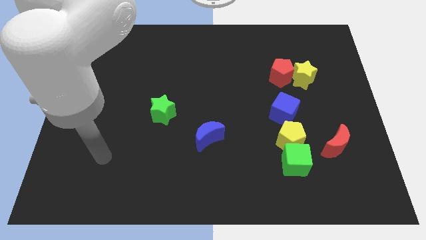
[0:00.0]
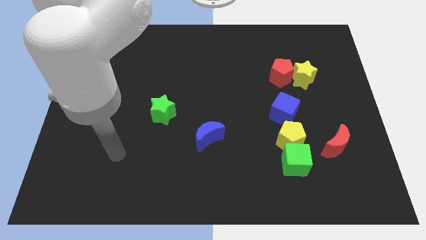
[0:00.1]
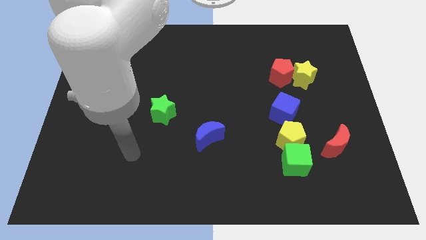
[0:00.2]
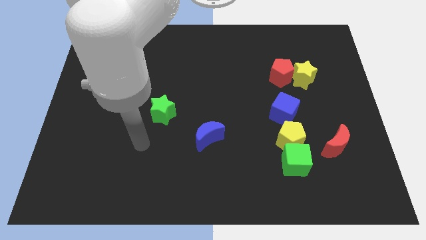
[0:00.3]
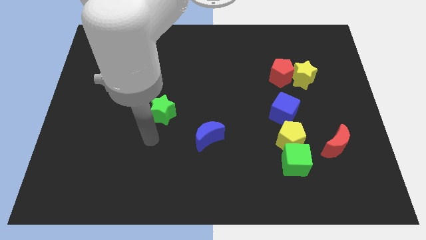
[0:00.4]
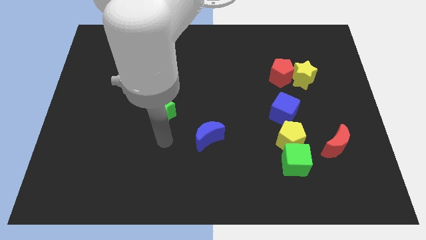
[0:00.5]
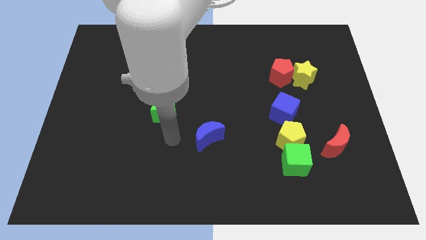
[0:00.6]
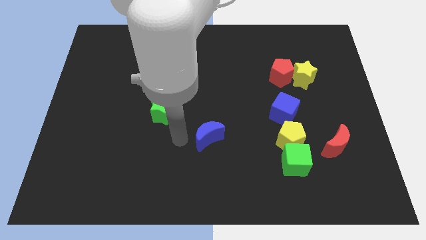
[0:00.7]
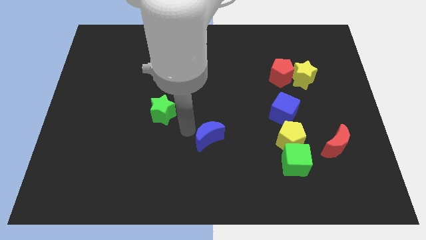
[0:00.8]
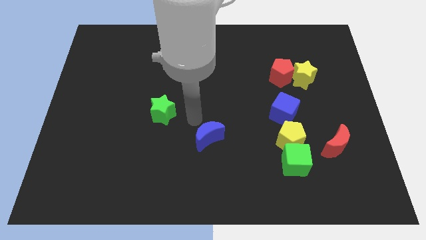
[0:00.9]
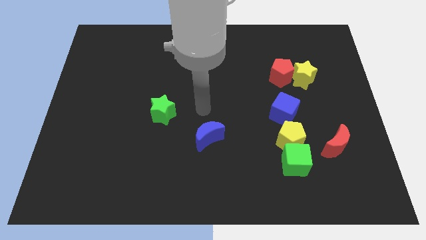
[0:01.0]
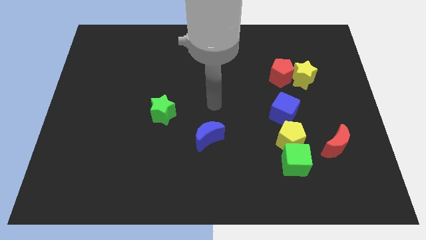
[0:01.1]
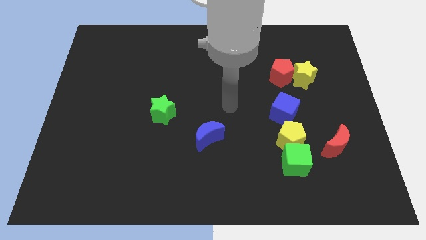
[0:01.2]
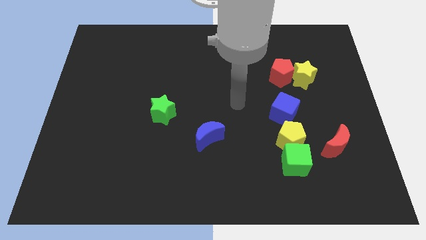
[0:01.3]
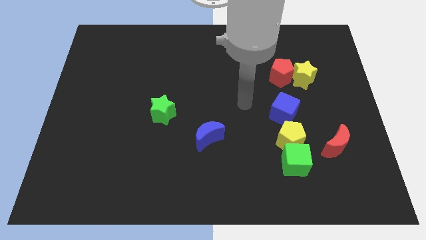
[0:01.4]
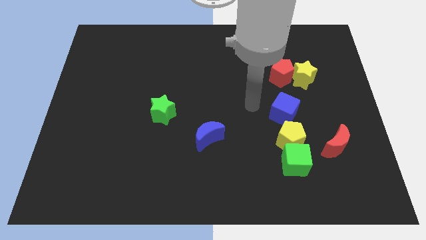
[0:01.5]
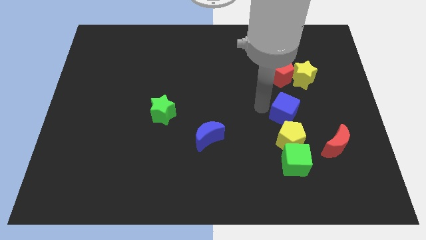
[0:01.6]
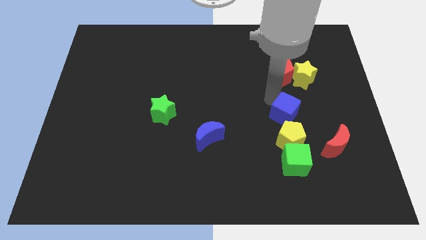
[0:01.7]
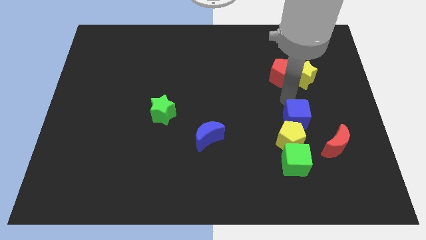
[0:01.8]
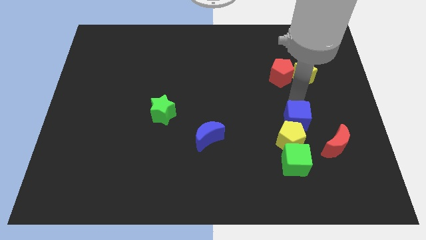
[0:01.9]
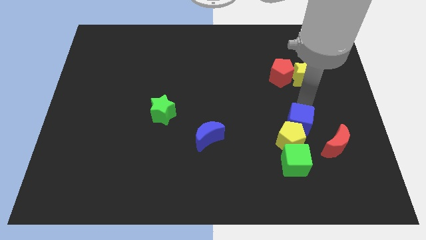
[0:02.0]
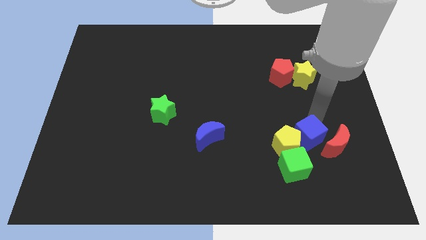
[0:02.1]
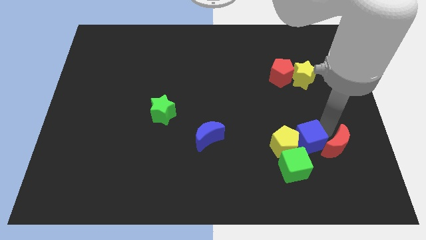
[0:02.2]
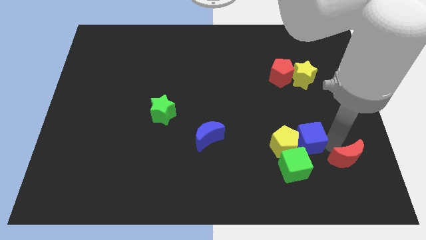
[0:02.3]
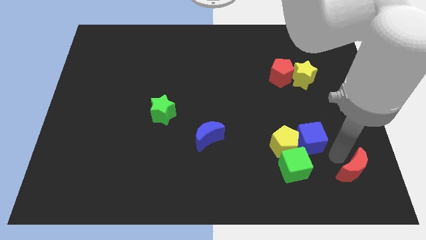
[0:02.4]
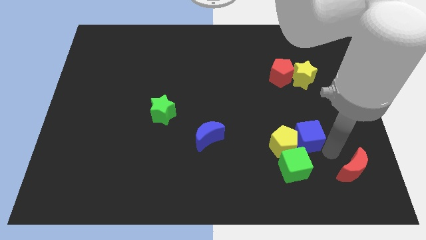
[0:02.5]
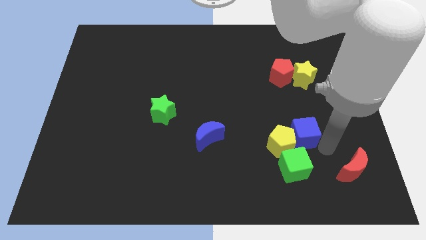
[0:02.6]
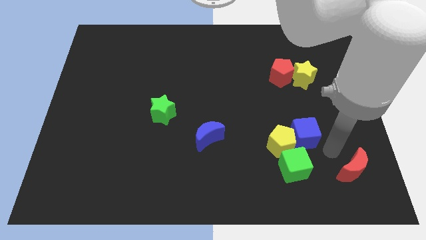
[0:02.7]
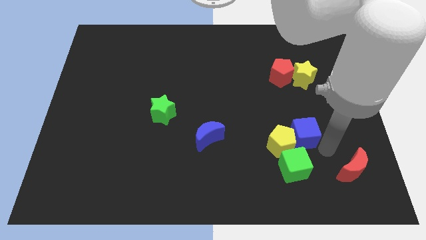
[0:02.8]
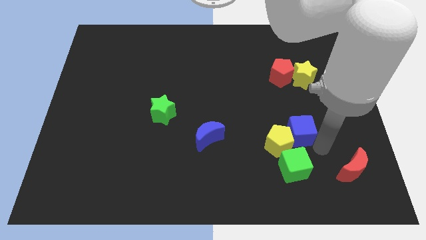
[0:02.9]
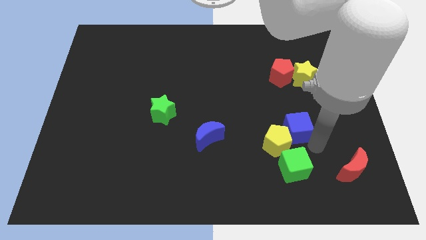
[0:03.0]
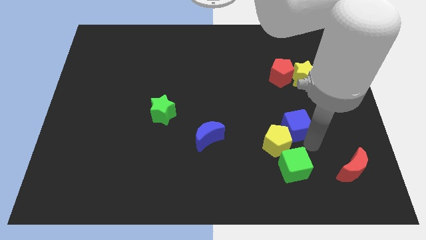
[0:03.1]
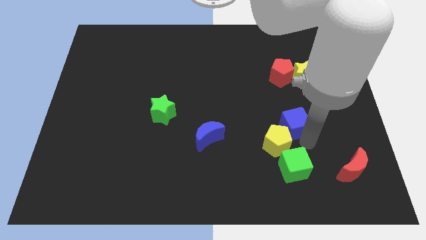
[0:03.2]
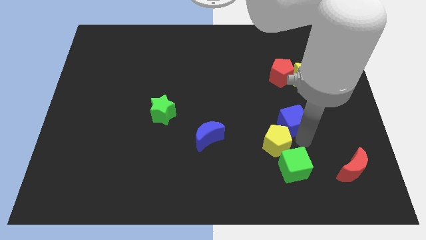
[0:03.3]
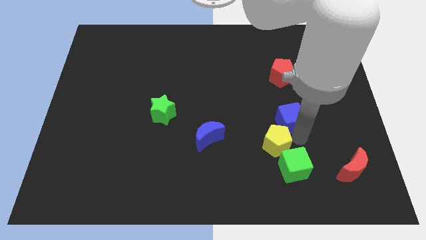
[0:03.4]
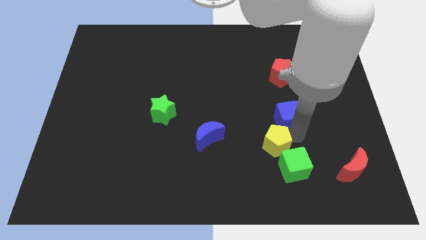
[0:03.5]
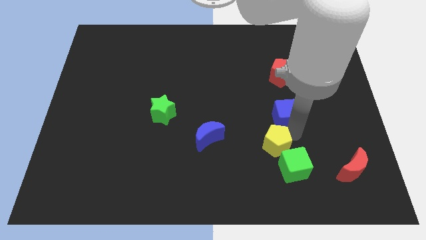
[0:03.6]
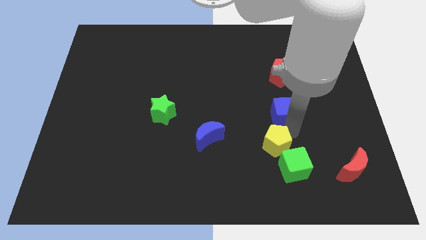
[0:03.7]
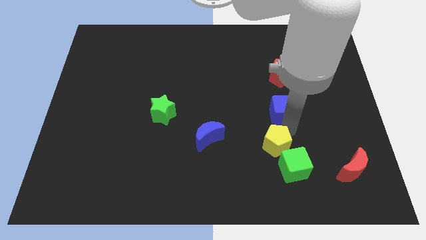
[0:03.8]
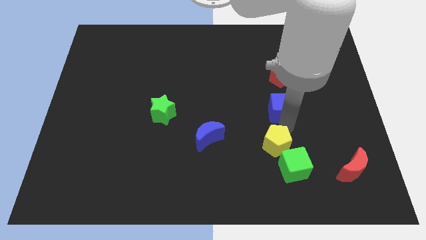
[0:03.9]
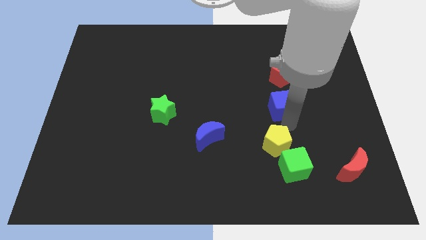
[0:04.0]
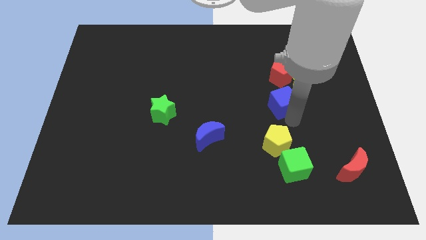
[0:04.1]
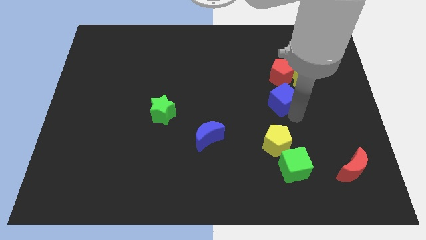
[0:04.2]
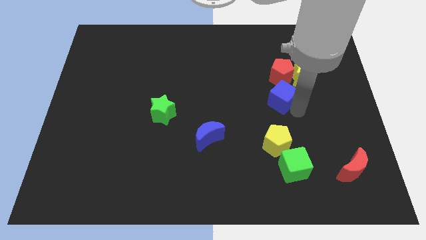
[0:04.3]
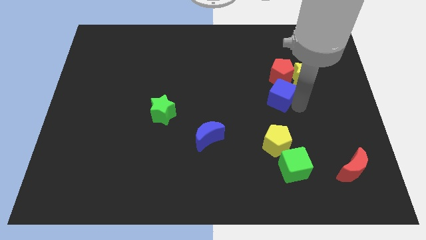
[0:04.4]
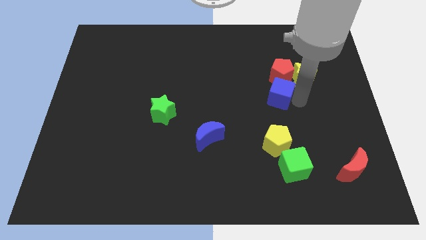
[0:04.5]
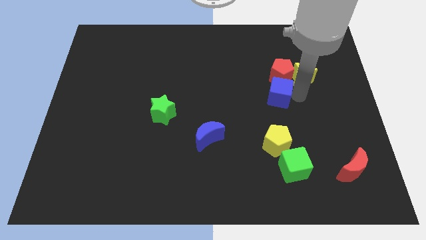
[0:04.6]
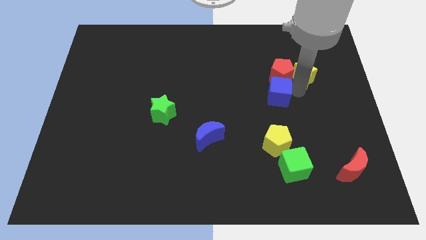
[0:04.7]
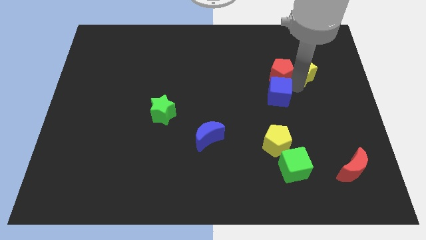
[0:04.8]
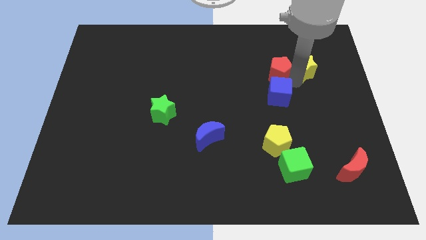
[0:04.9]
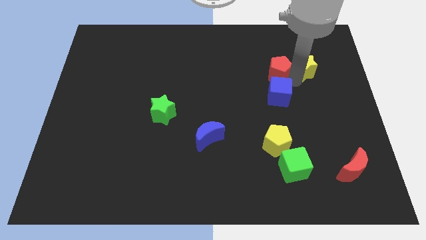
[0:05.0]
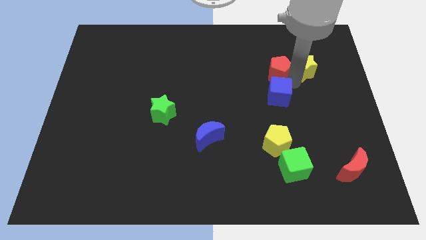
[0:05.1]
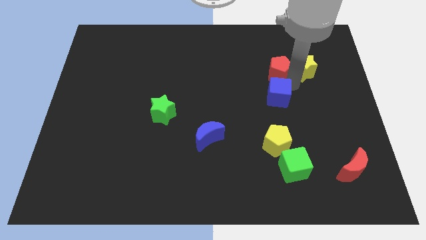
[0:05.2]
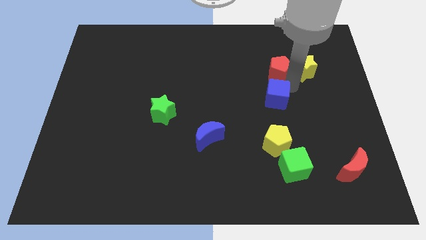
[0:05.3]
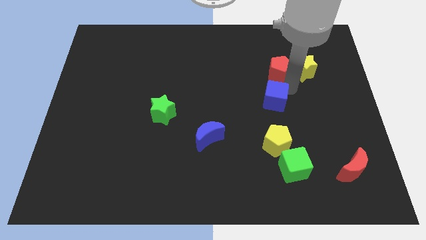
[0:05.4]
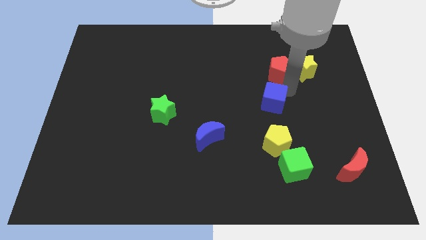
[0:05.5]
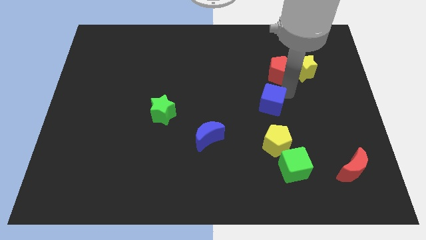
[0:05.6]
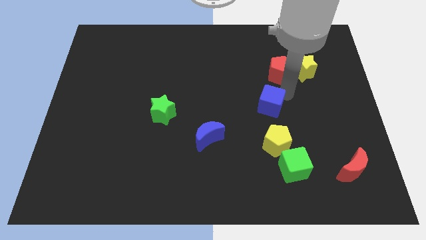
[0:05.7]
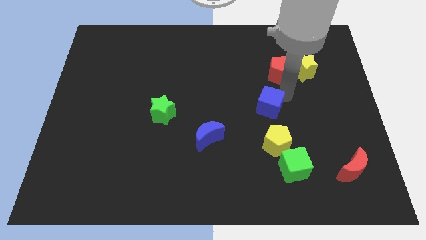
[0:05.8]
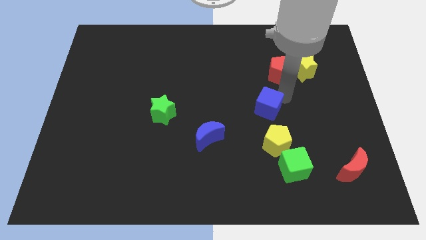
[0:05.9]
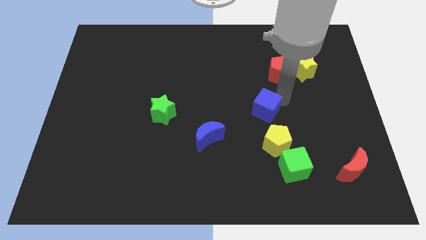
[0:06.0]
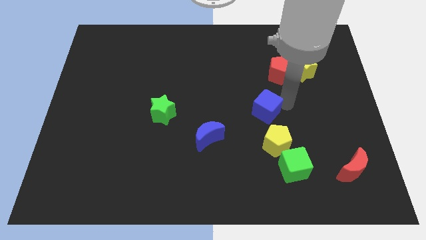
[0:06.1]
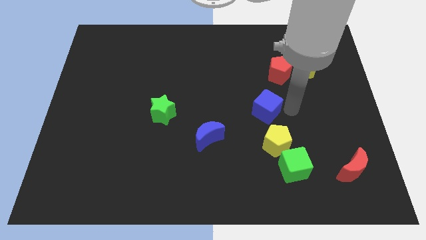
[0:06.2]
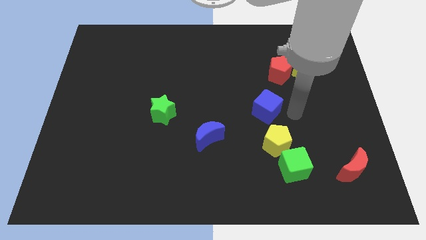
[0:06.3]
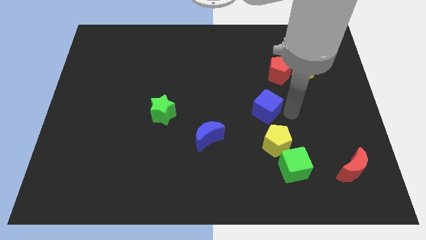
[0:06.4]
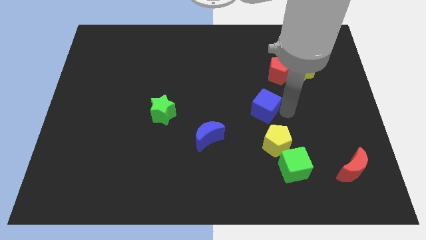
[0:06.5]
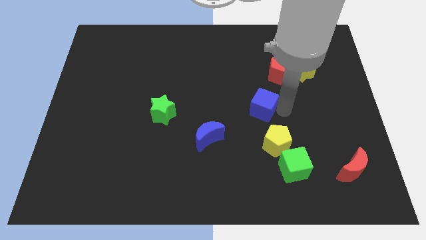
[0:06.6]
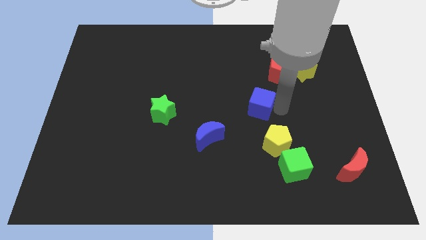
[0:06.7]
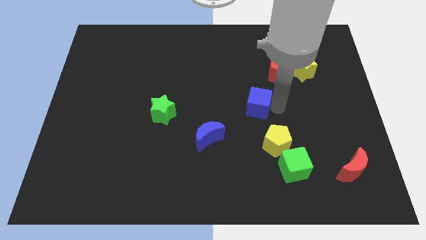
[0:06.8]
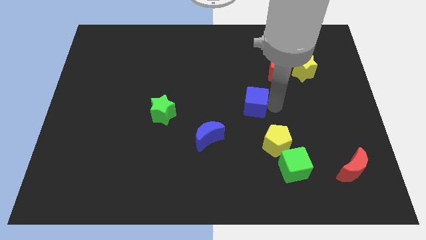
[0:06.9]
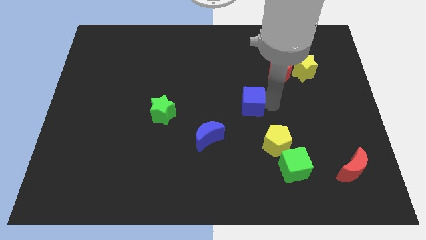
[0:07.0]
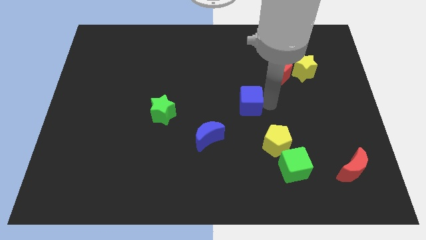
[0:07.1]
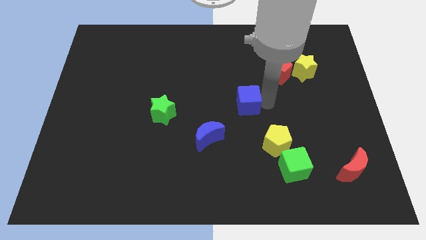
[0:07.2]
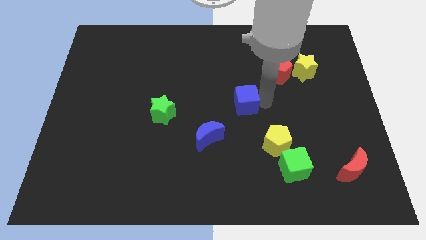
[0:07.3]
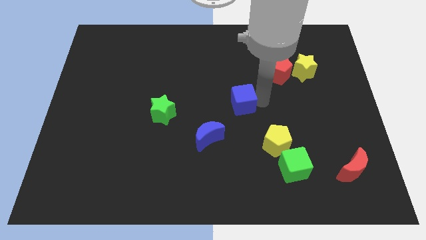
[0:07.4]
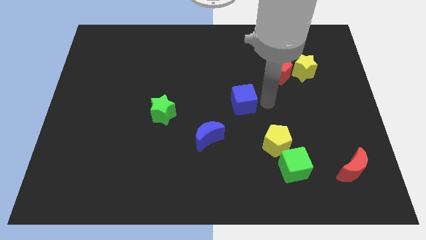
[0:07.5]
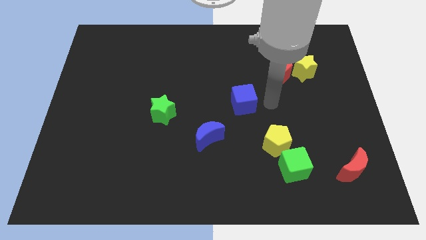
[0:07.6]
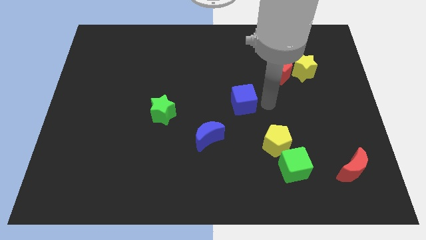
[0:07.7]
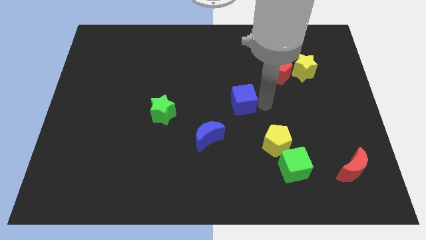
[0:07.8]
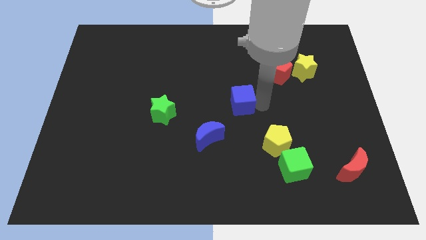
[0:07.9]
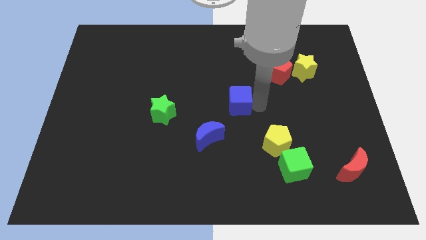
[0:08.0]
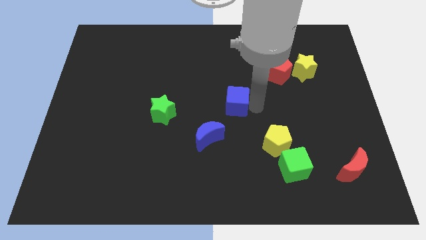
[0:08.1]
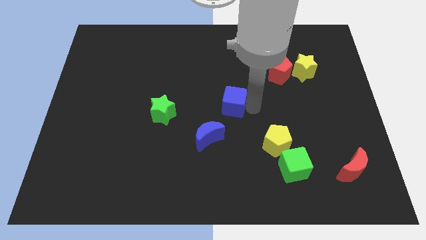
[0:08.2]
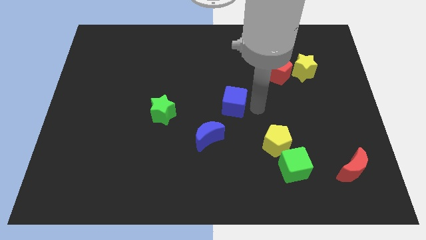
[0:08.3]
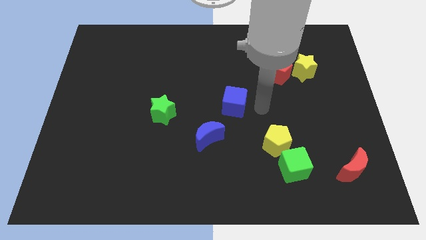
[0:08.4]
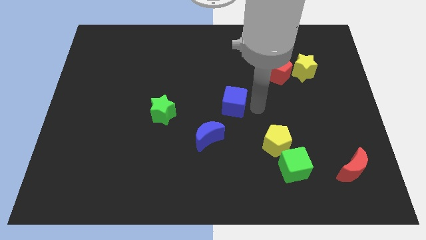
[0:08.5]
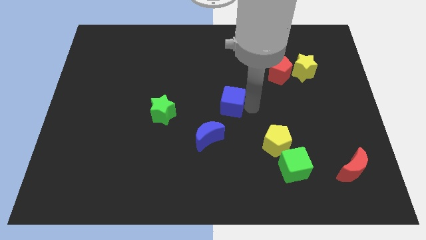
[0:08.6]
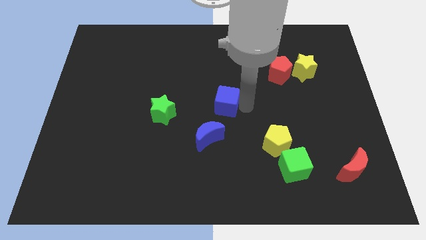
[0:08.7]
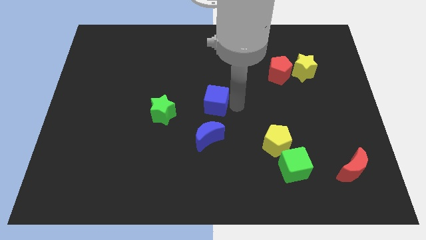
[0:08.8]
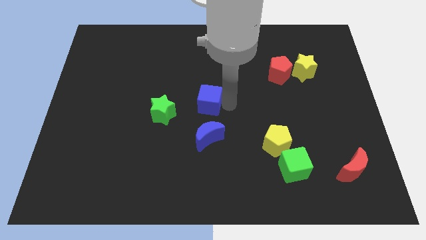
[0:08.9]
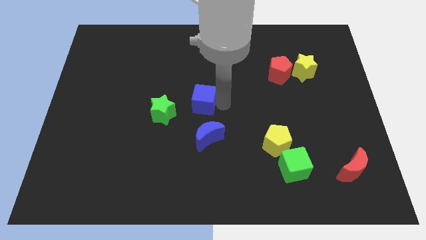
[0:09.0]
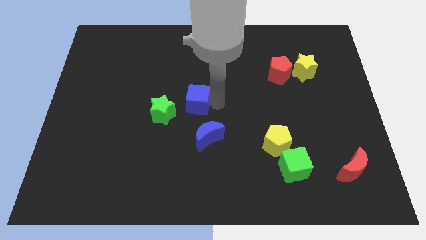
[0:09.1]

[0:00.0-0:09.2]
move the blue cube left
